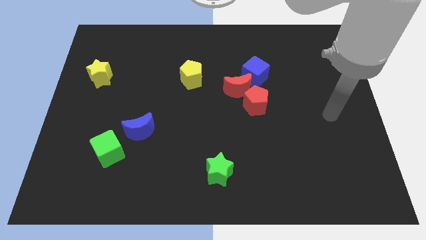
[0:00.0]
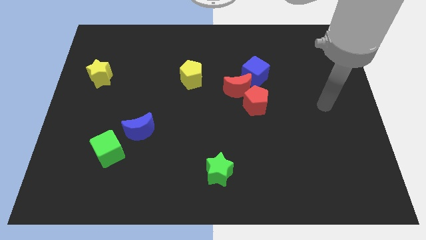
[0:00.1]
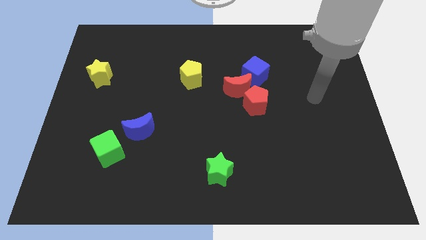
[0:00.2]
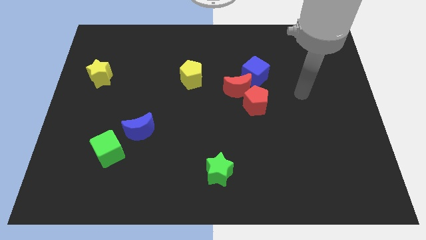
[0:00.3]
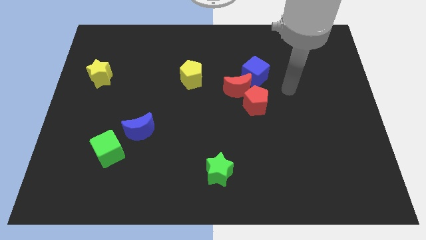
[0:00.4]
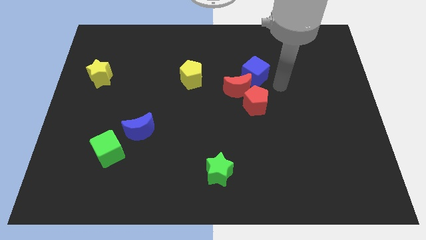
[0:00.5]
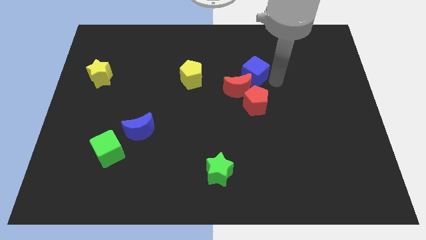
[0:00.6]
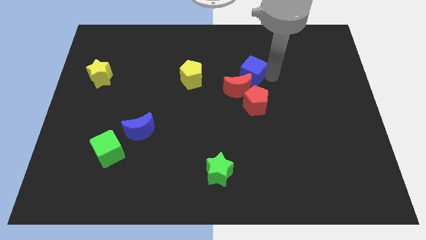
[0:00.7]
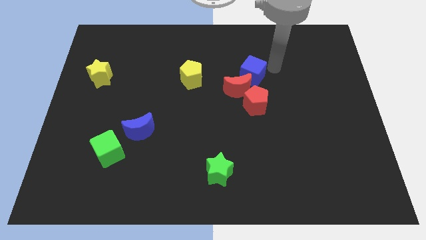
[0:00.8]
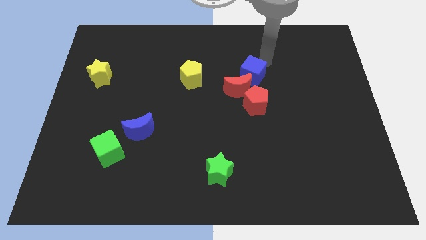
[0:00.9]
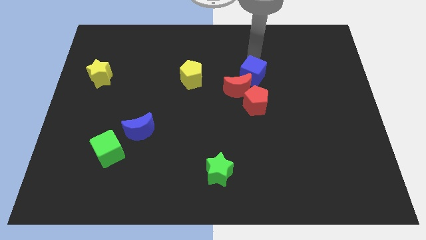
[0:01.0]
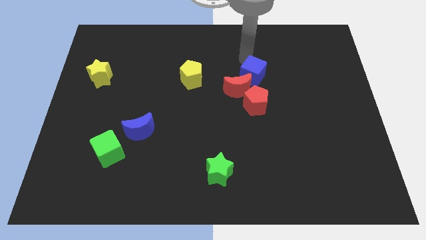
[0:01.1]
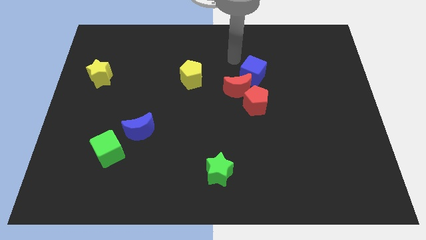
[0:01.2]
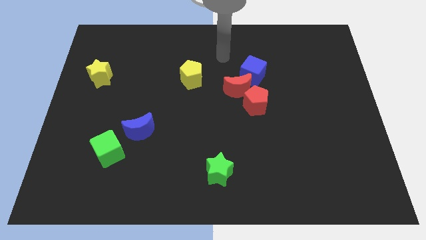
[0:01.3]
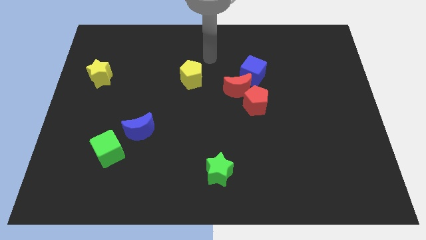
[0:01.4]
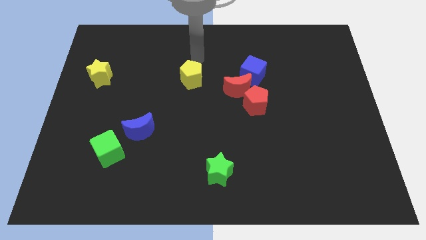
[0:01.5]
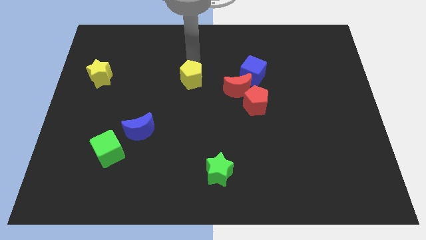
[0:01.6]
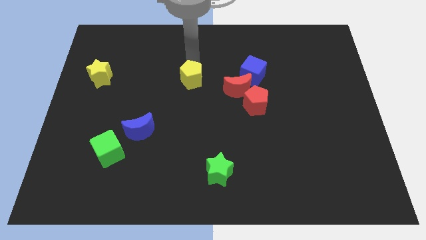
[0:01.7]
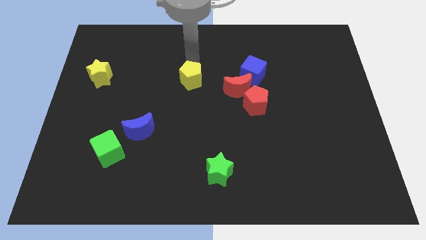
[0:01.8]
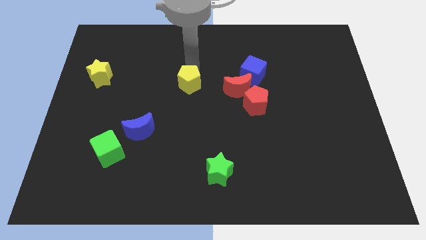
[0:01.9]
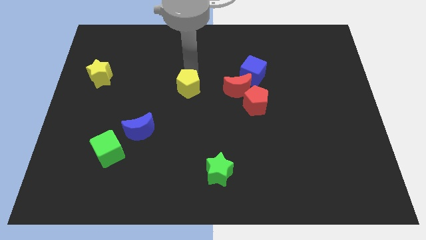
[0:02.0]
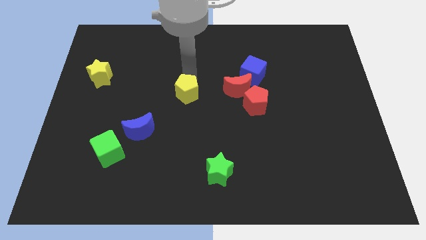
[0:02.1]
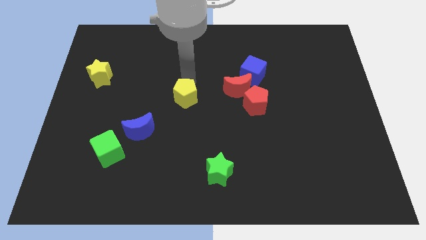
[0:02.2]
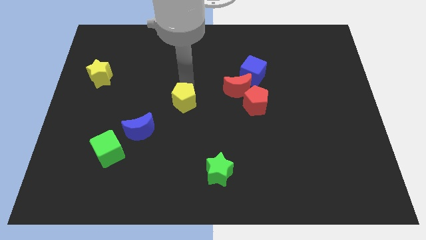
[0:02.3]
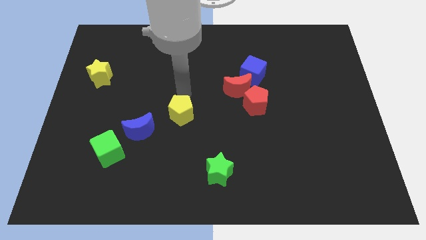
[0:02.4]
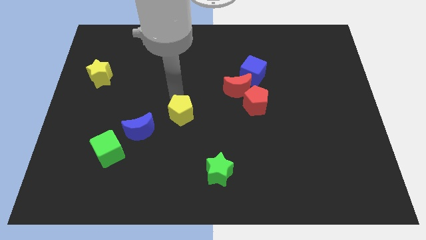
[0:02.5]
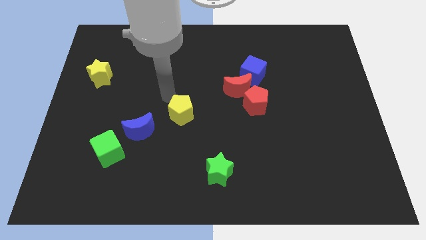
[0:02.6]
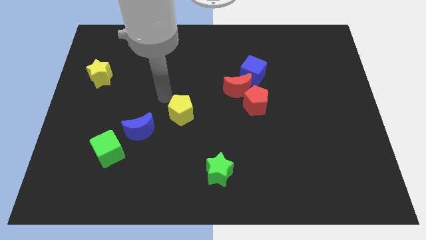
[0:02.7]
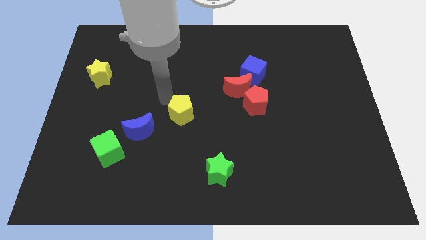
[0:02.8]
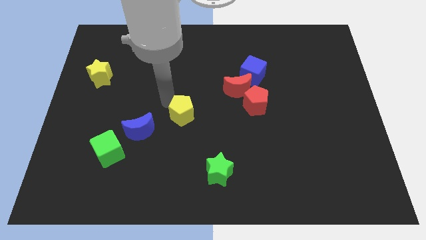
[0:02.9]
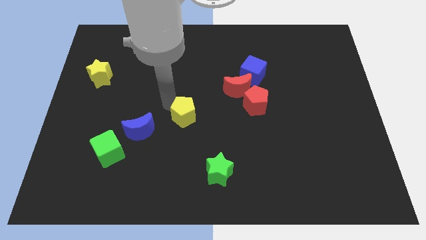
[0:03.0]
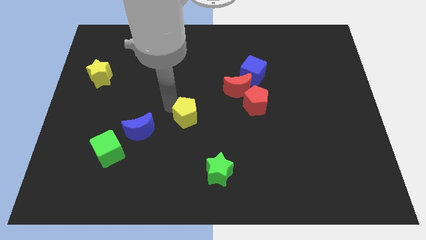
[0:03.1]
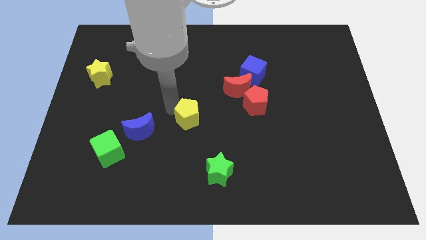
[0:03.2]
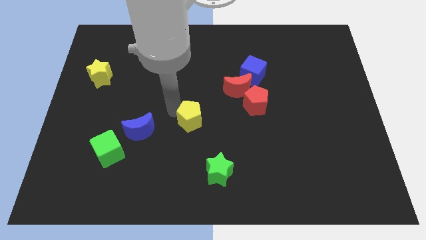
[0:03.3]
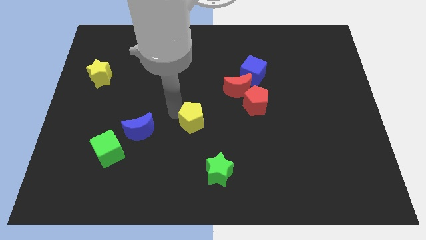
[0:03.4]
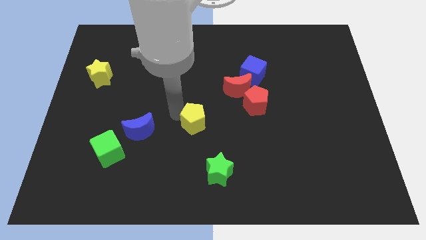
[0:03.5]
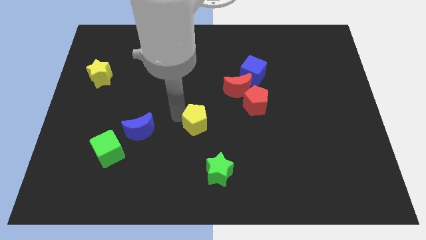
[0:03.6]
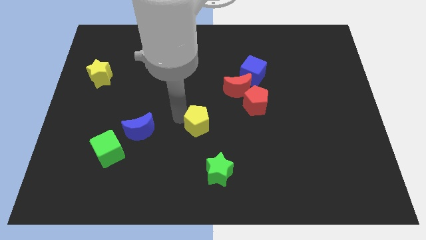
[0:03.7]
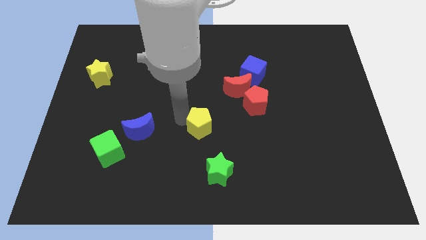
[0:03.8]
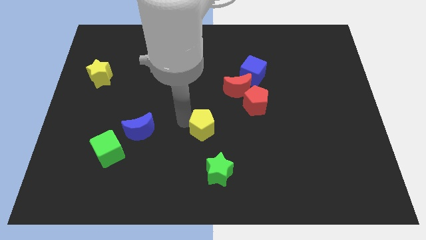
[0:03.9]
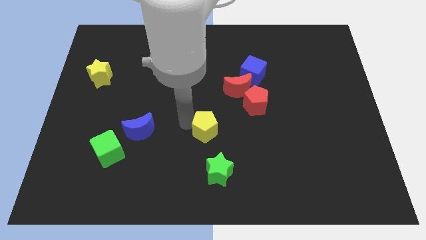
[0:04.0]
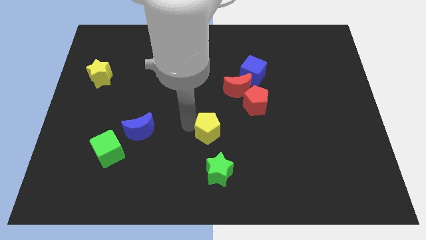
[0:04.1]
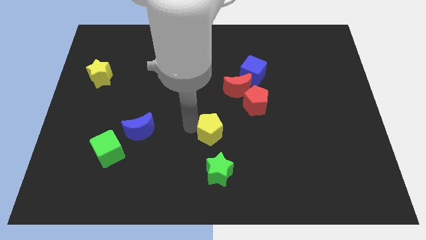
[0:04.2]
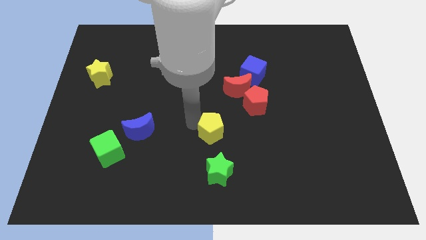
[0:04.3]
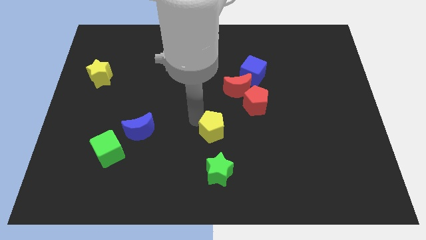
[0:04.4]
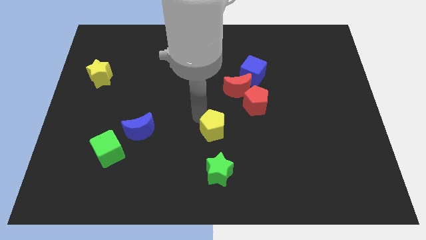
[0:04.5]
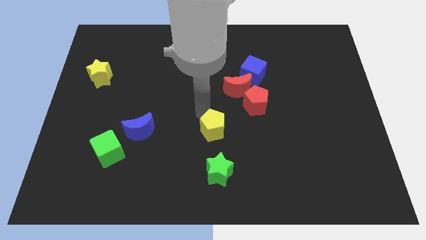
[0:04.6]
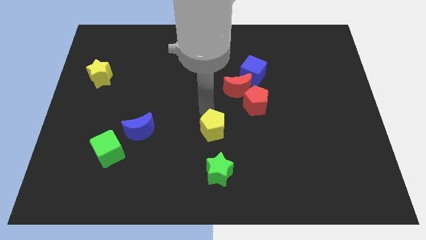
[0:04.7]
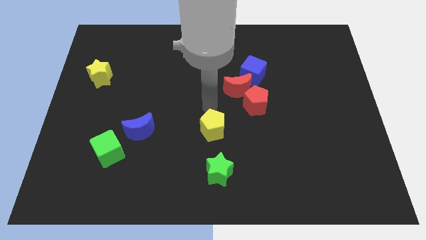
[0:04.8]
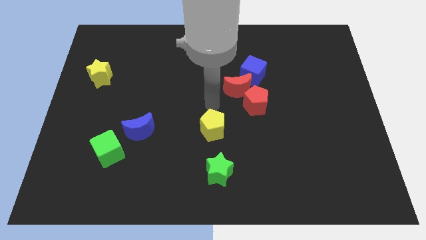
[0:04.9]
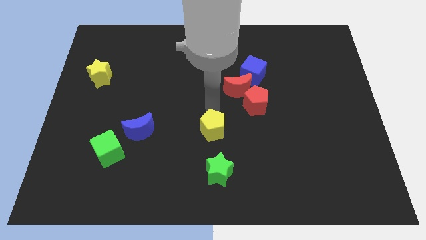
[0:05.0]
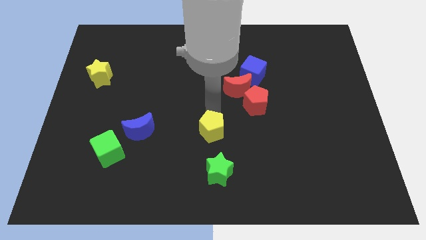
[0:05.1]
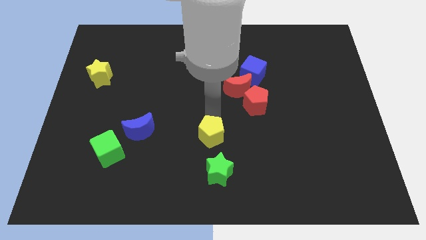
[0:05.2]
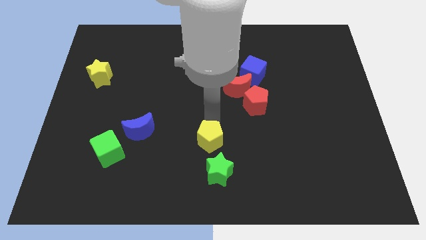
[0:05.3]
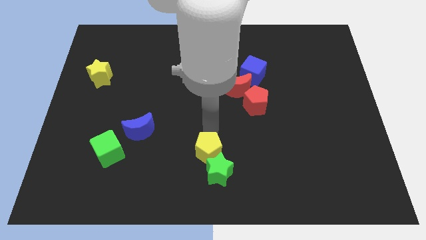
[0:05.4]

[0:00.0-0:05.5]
slide the yellow pentagon towards the green star

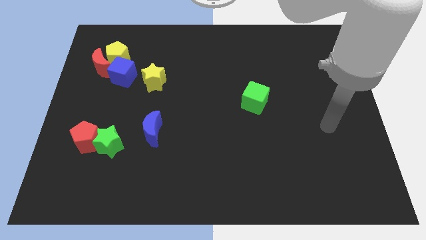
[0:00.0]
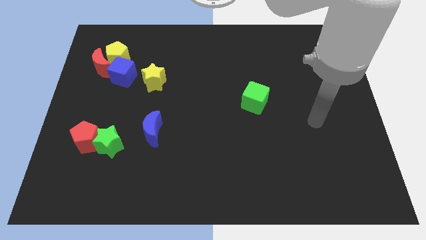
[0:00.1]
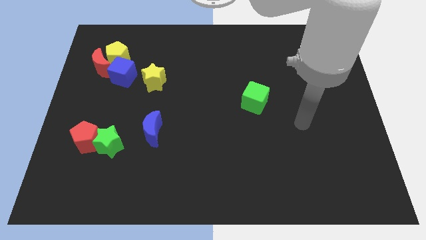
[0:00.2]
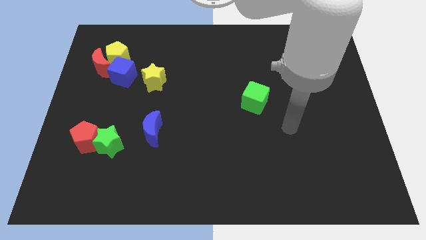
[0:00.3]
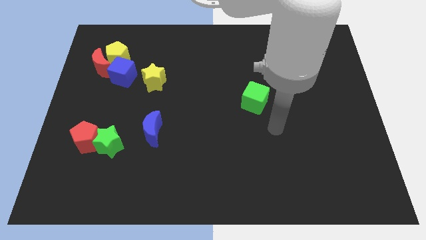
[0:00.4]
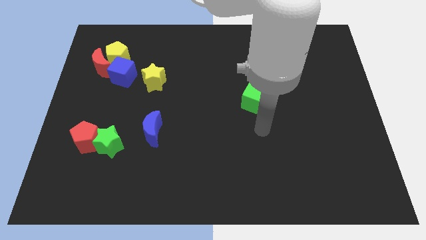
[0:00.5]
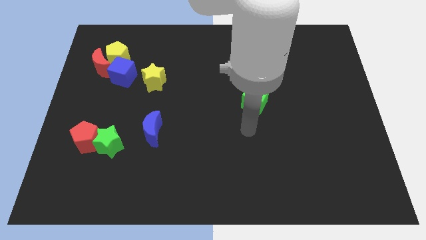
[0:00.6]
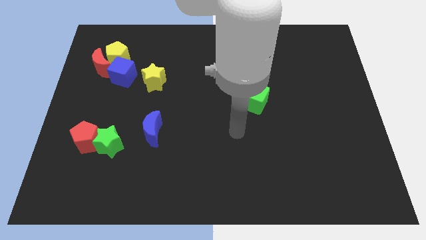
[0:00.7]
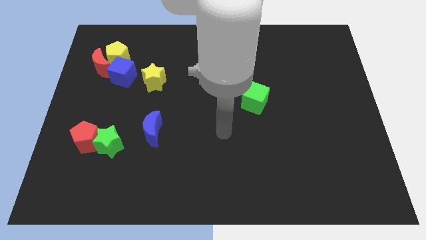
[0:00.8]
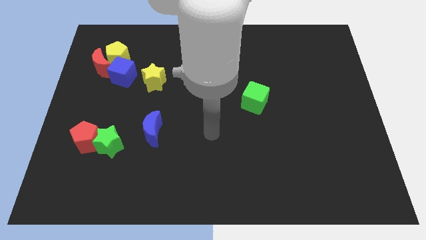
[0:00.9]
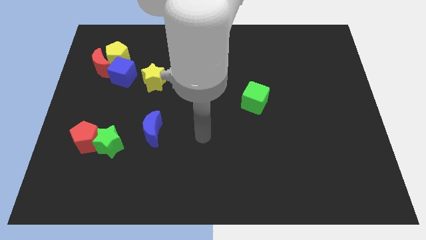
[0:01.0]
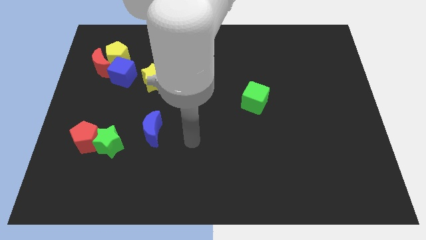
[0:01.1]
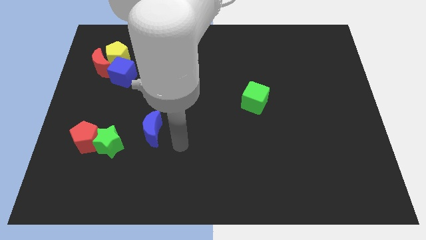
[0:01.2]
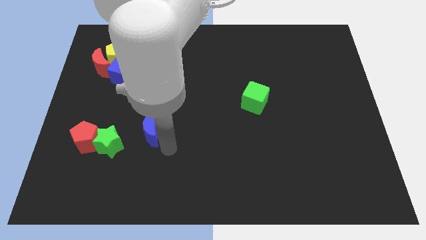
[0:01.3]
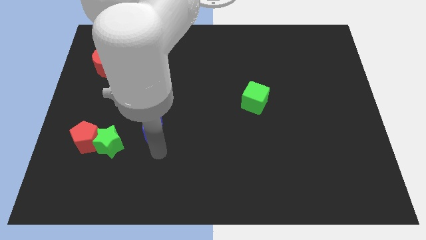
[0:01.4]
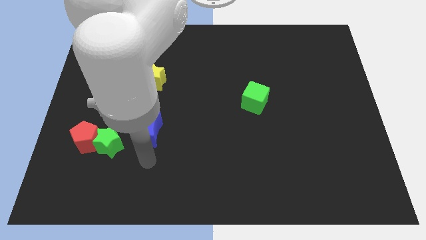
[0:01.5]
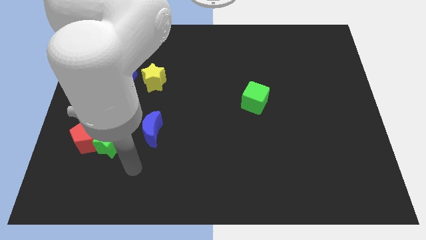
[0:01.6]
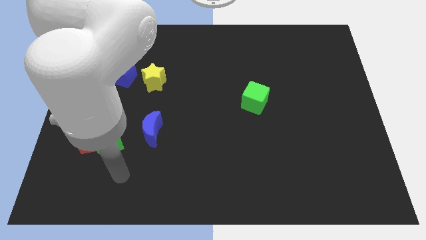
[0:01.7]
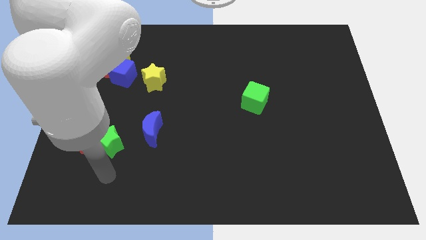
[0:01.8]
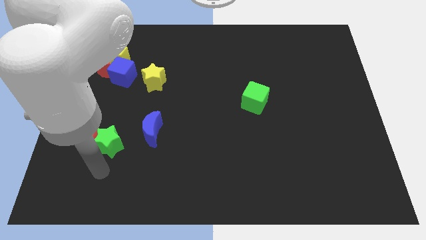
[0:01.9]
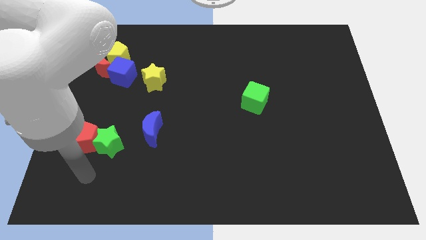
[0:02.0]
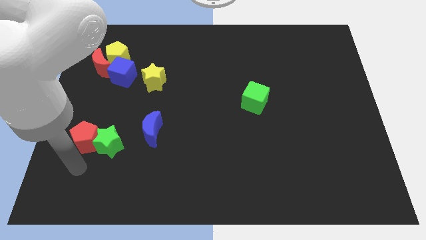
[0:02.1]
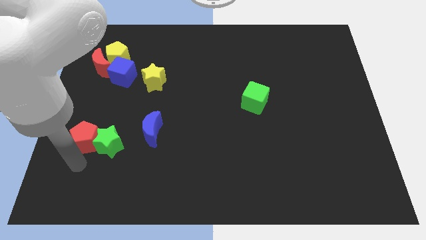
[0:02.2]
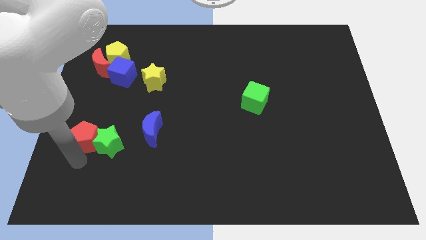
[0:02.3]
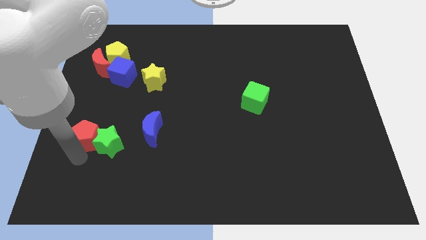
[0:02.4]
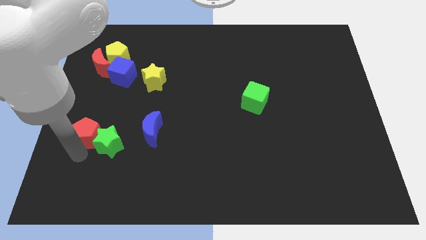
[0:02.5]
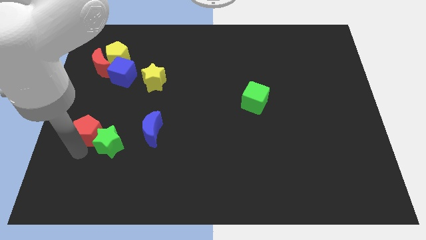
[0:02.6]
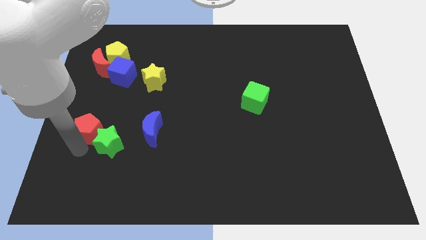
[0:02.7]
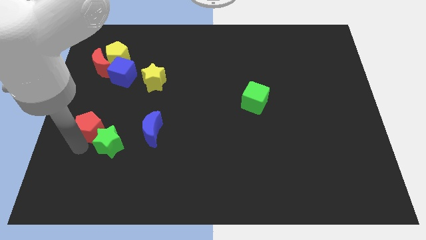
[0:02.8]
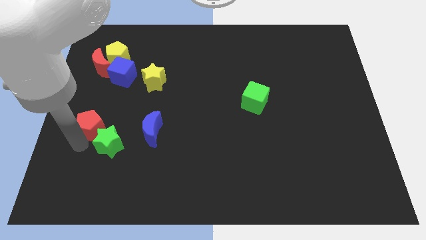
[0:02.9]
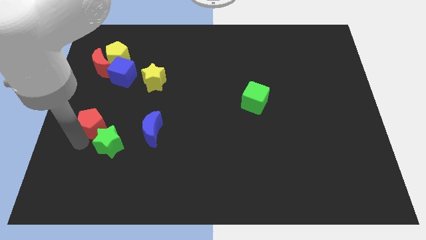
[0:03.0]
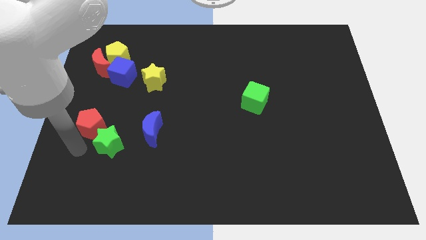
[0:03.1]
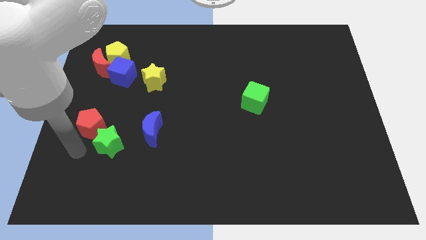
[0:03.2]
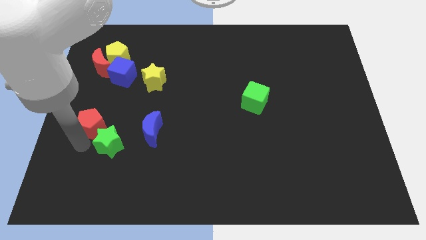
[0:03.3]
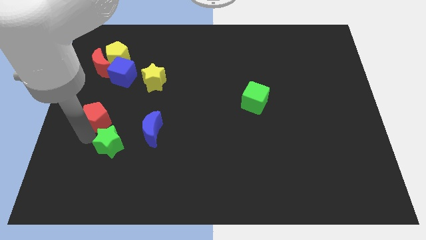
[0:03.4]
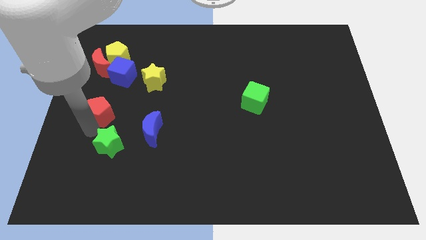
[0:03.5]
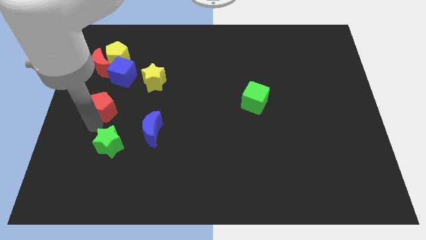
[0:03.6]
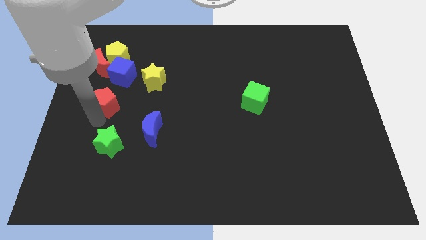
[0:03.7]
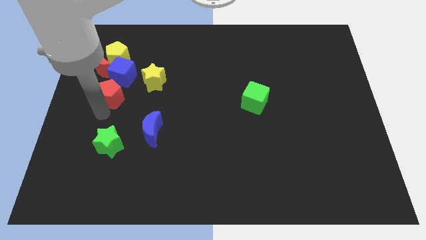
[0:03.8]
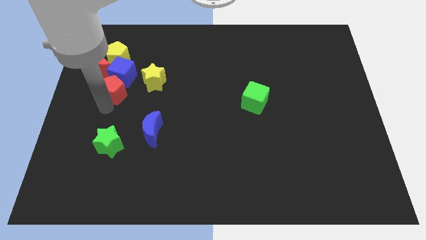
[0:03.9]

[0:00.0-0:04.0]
put the red pentagon to the blue cube
